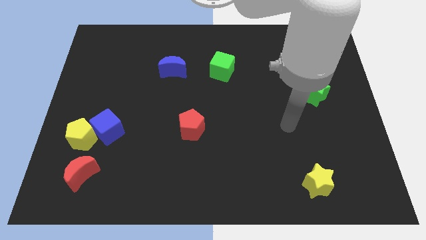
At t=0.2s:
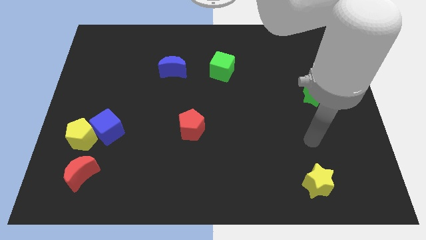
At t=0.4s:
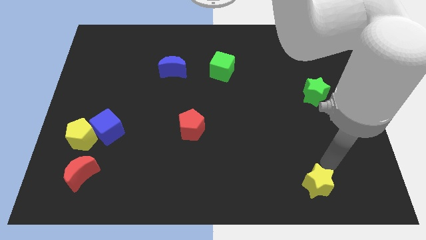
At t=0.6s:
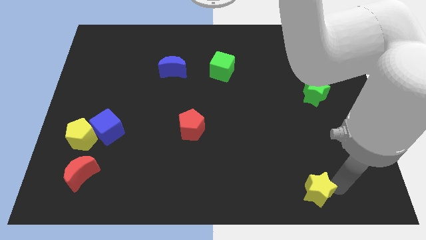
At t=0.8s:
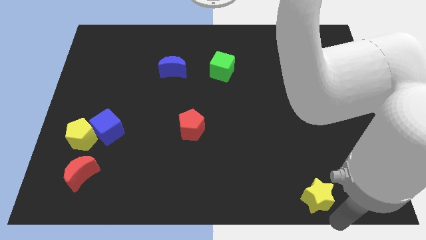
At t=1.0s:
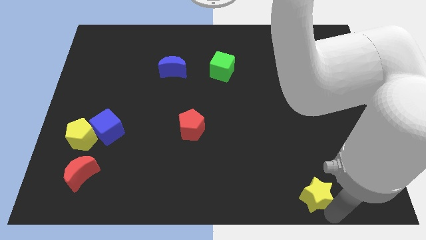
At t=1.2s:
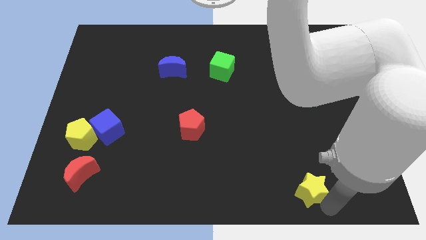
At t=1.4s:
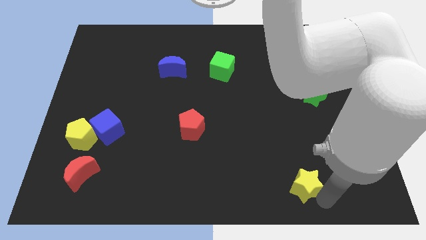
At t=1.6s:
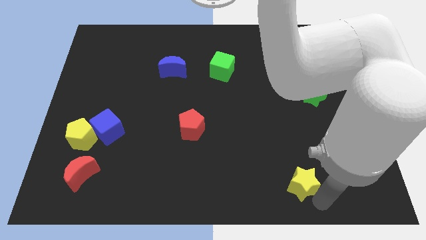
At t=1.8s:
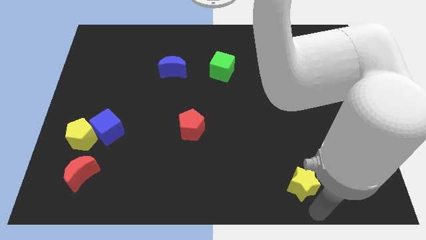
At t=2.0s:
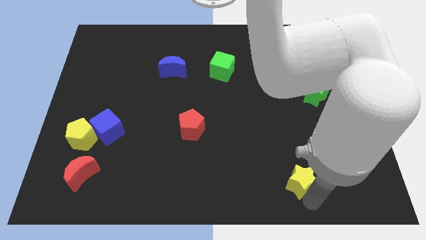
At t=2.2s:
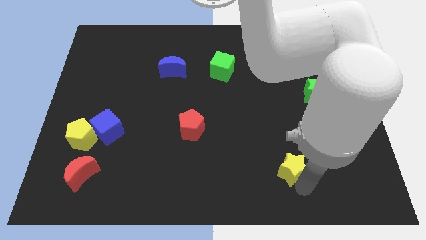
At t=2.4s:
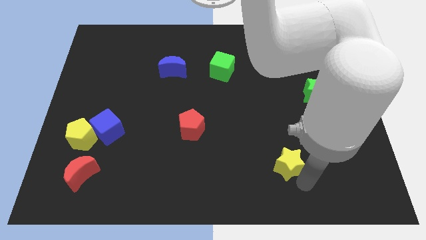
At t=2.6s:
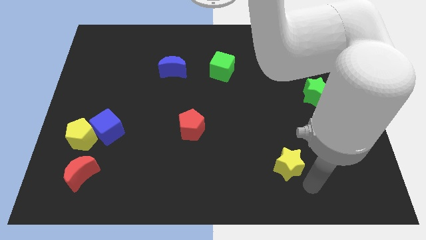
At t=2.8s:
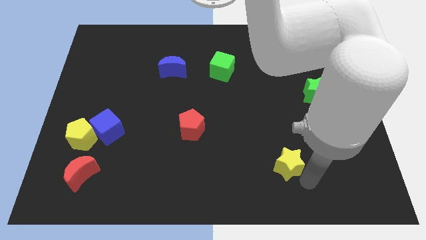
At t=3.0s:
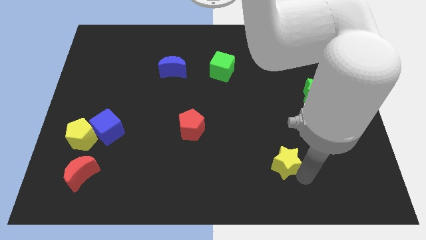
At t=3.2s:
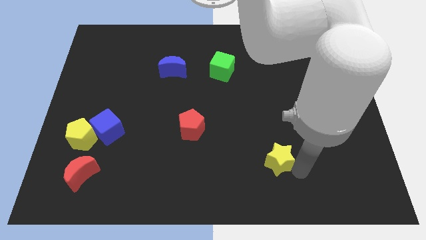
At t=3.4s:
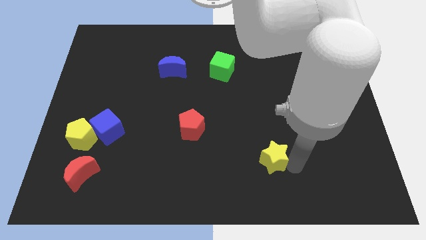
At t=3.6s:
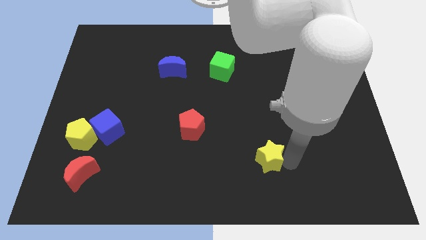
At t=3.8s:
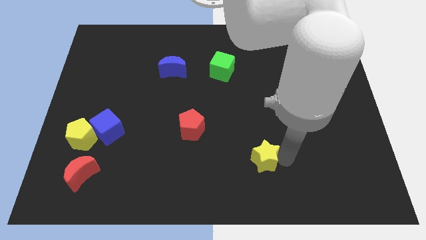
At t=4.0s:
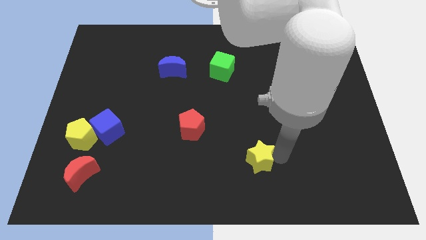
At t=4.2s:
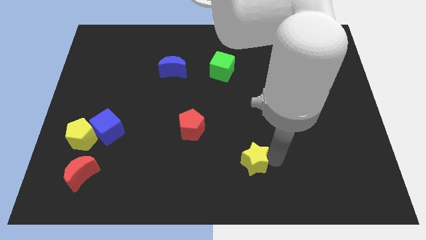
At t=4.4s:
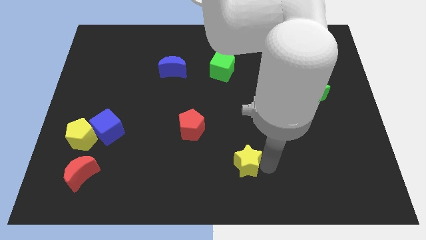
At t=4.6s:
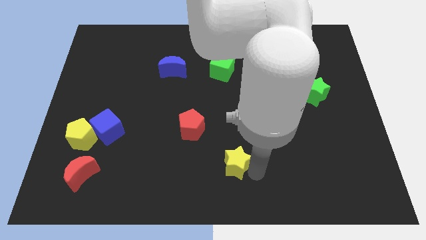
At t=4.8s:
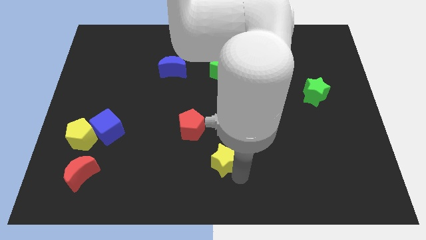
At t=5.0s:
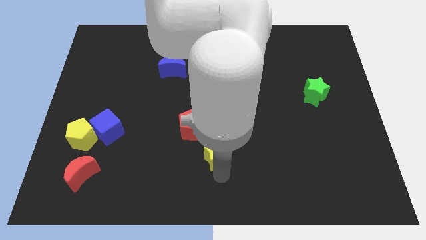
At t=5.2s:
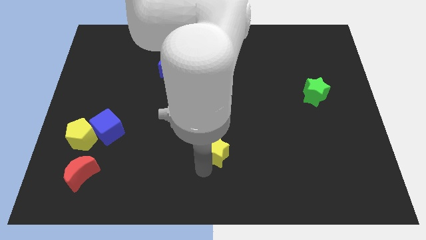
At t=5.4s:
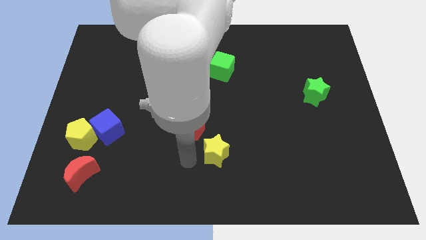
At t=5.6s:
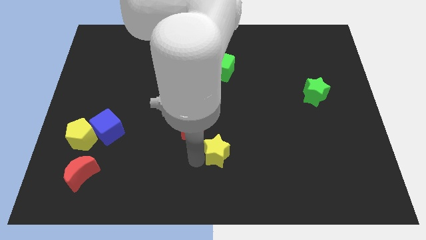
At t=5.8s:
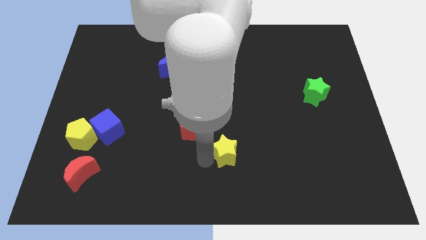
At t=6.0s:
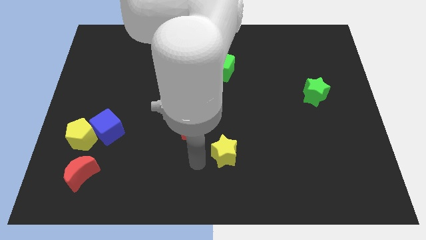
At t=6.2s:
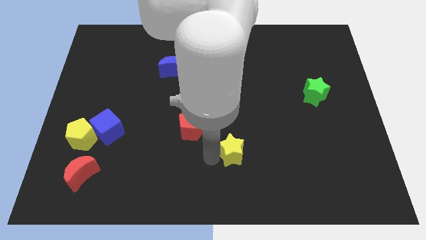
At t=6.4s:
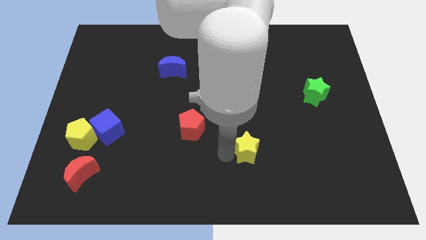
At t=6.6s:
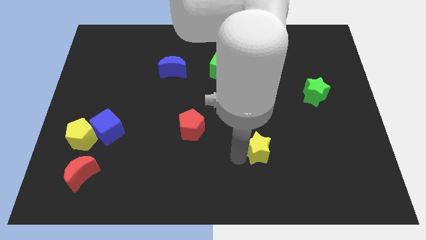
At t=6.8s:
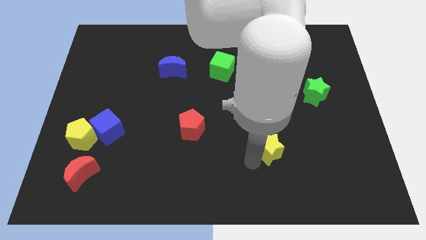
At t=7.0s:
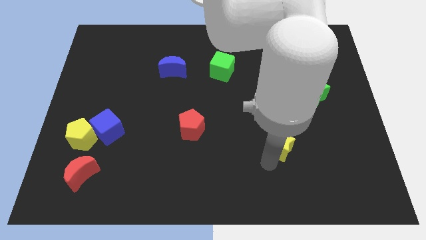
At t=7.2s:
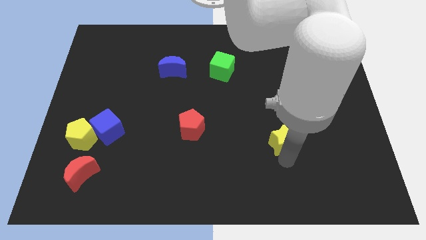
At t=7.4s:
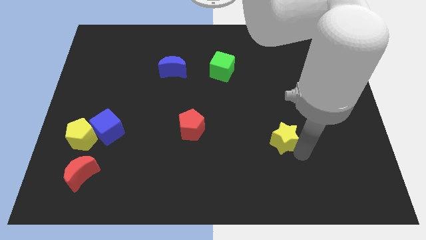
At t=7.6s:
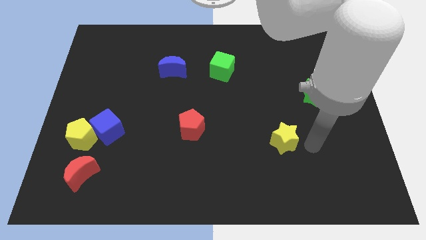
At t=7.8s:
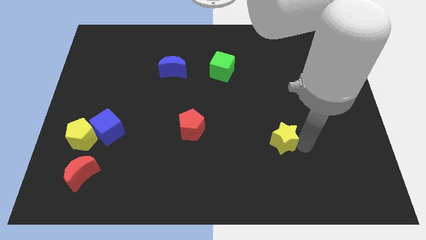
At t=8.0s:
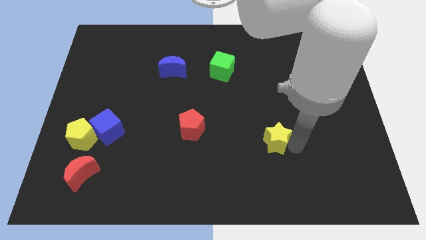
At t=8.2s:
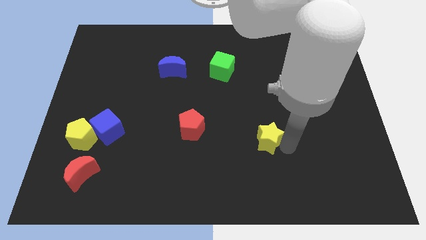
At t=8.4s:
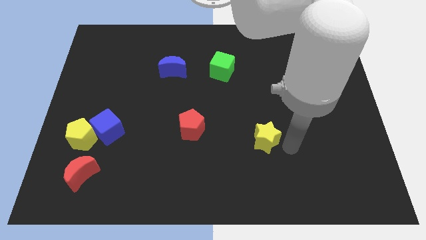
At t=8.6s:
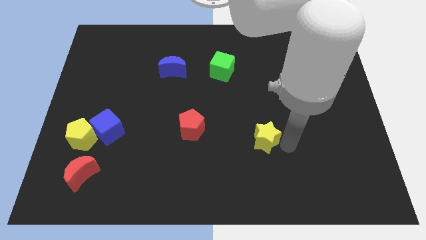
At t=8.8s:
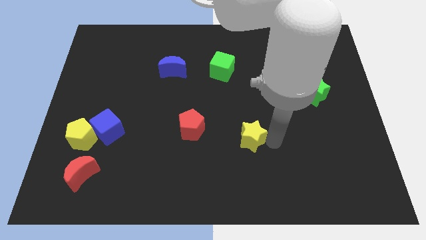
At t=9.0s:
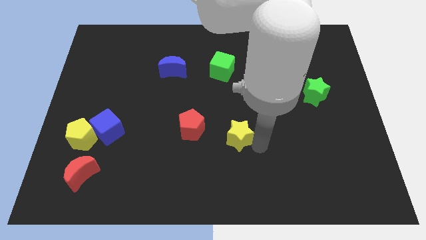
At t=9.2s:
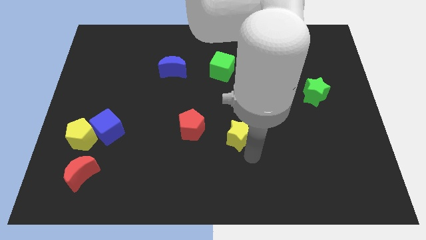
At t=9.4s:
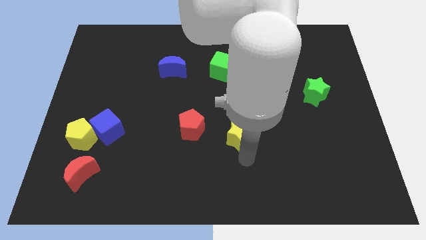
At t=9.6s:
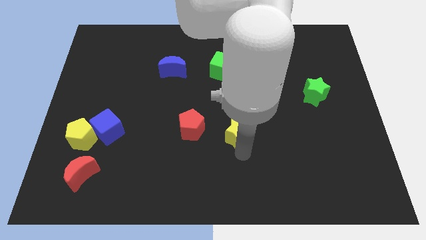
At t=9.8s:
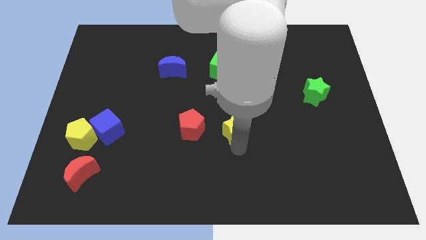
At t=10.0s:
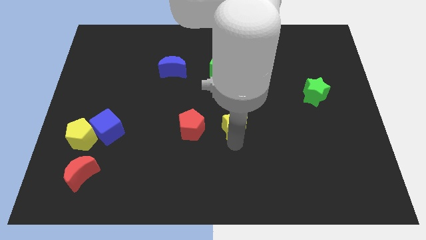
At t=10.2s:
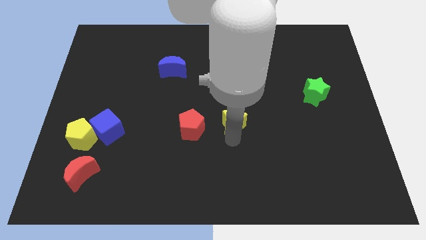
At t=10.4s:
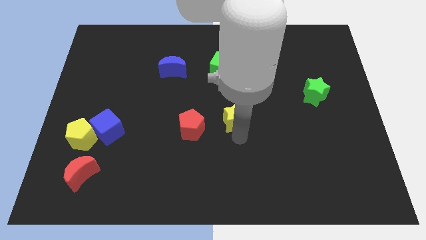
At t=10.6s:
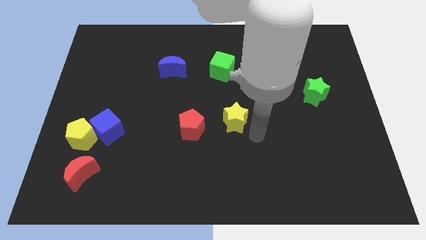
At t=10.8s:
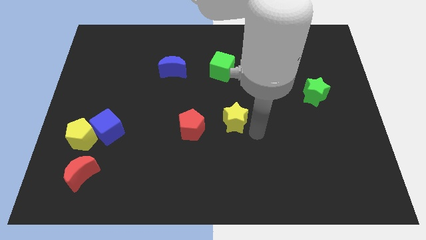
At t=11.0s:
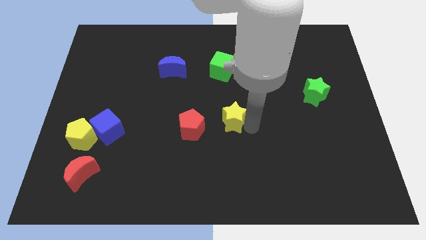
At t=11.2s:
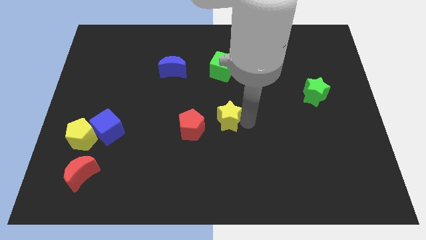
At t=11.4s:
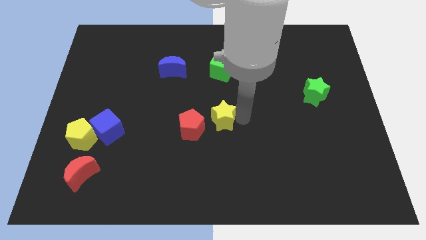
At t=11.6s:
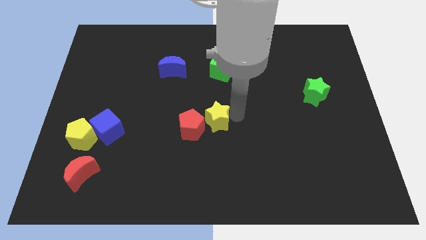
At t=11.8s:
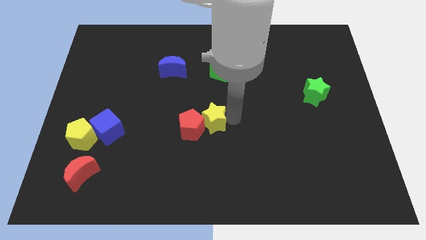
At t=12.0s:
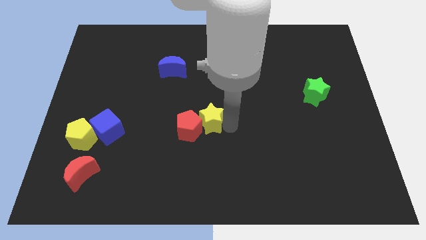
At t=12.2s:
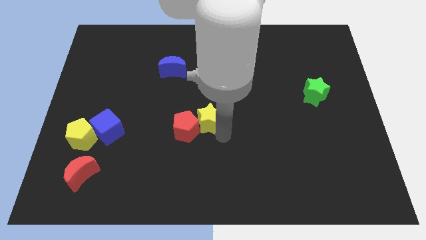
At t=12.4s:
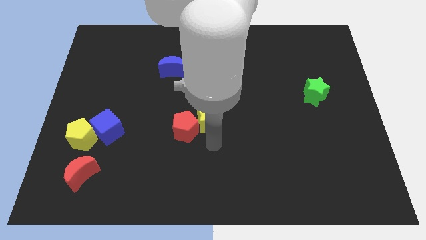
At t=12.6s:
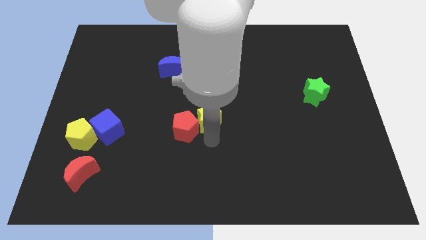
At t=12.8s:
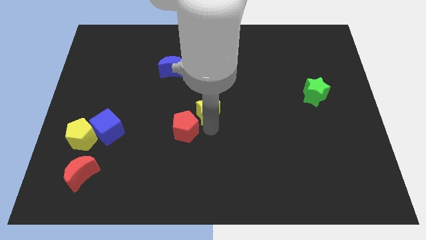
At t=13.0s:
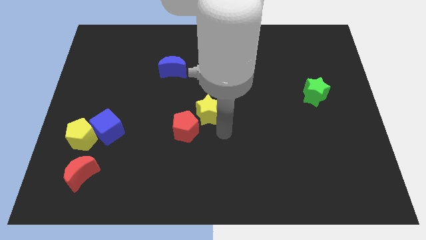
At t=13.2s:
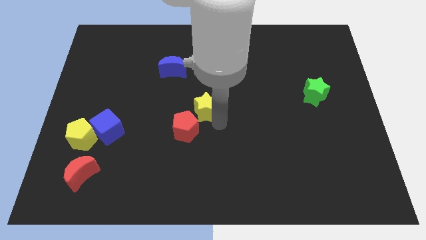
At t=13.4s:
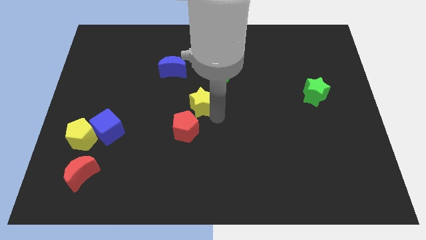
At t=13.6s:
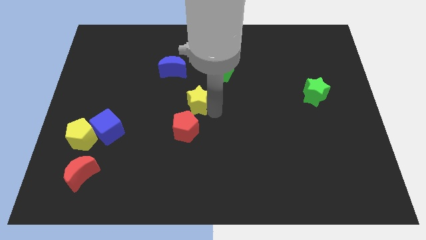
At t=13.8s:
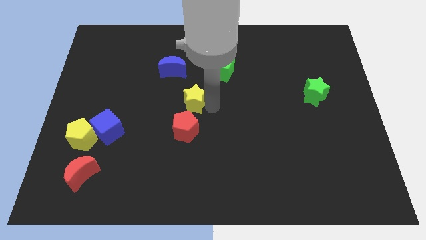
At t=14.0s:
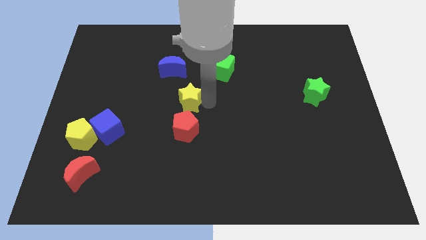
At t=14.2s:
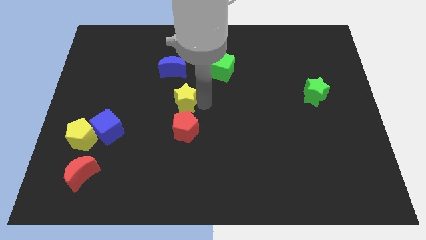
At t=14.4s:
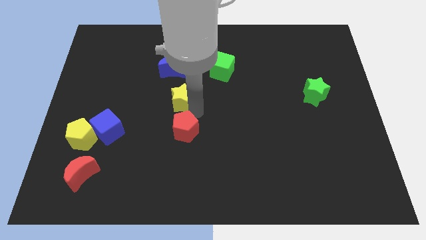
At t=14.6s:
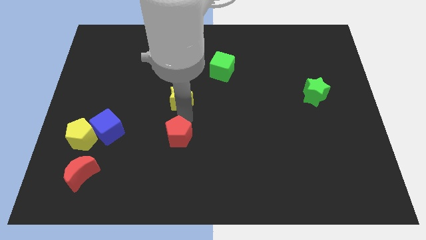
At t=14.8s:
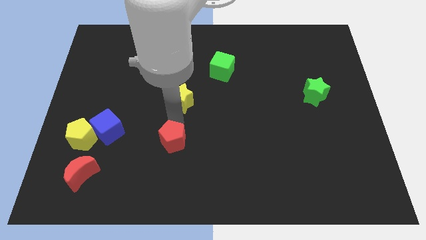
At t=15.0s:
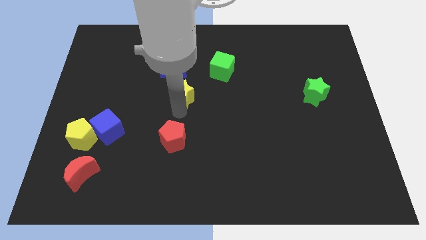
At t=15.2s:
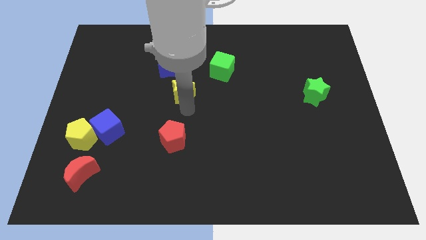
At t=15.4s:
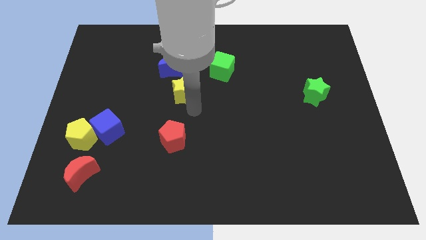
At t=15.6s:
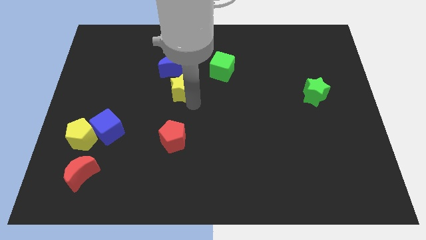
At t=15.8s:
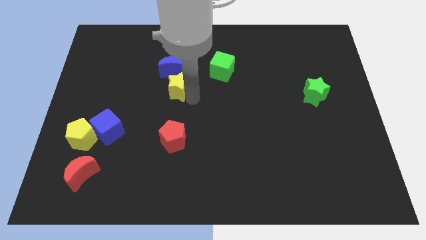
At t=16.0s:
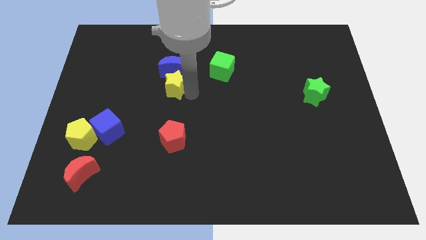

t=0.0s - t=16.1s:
slide the yellow star towards the blue moon

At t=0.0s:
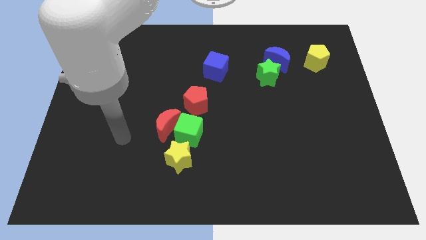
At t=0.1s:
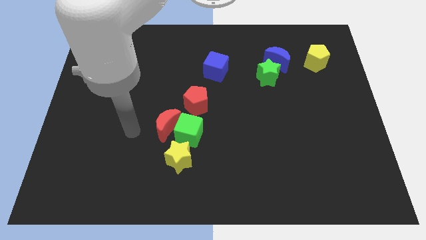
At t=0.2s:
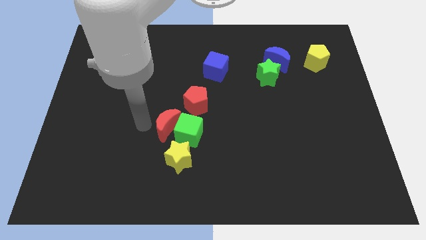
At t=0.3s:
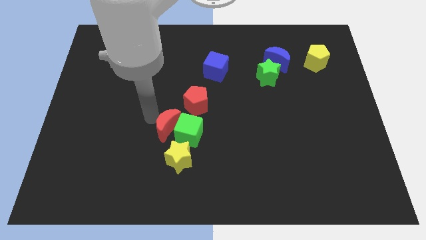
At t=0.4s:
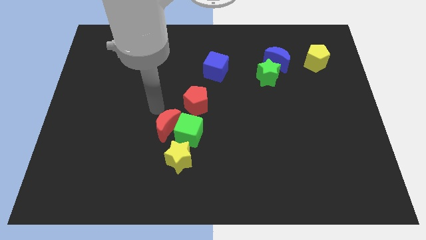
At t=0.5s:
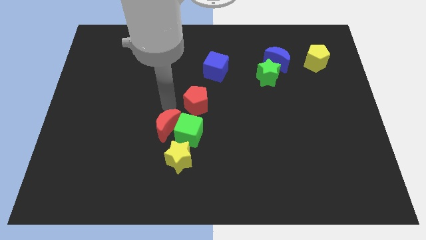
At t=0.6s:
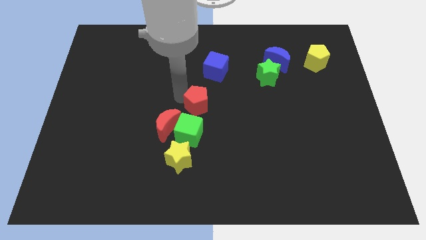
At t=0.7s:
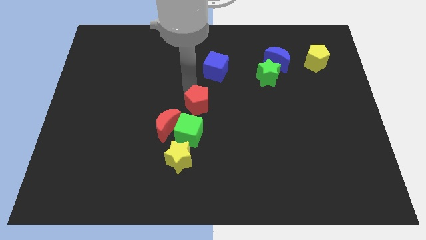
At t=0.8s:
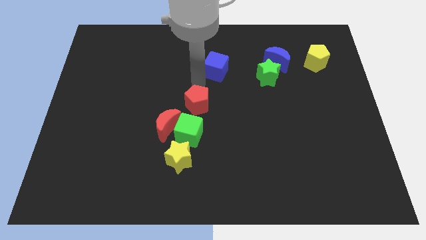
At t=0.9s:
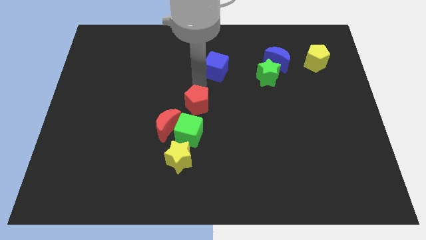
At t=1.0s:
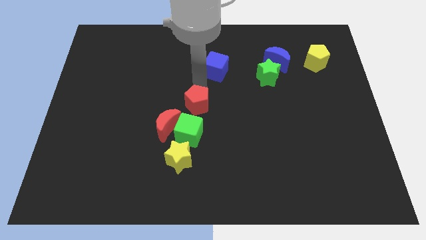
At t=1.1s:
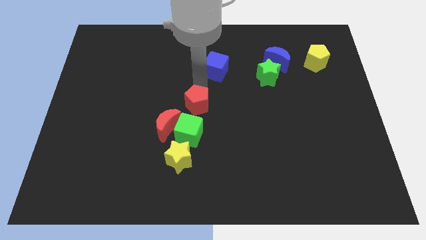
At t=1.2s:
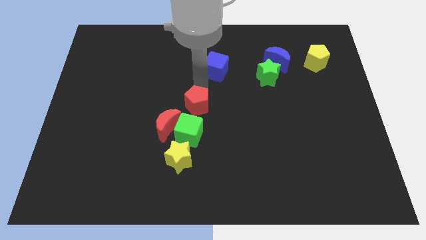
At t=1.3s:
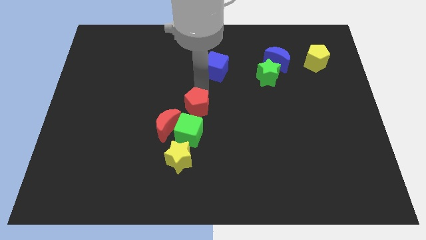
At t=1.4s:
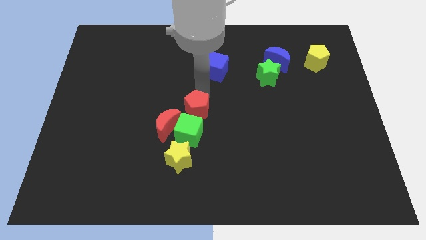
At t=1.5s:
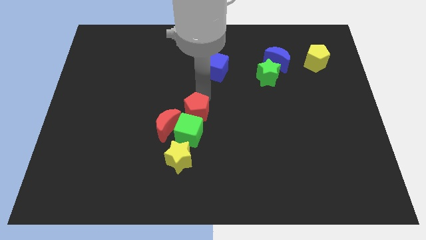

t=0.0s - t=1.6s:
push the red pentagon to the green cube
